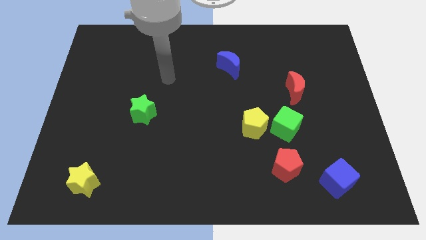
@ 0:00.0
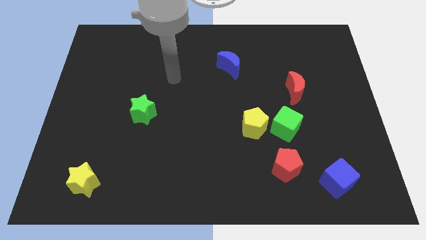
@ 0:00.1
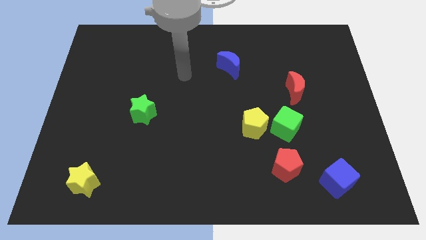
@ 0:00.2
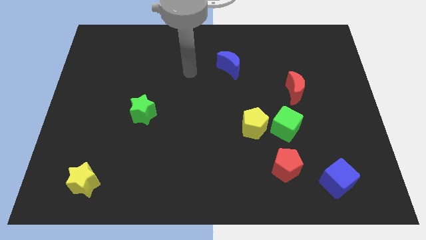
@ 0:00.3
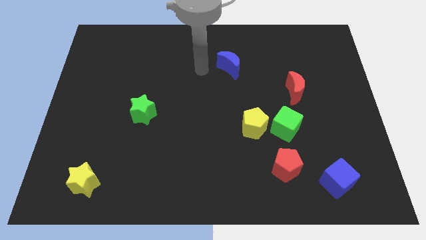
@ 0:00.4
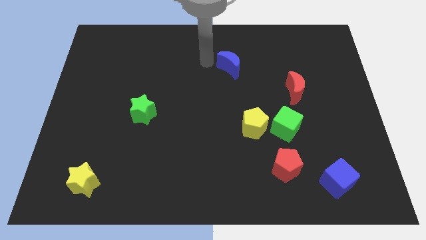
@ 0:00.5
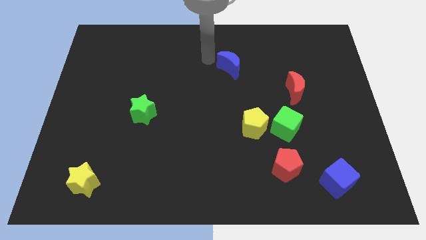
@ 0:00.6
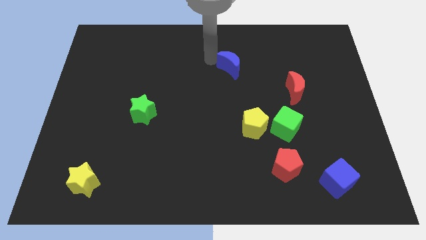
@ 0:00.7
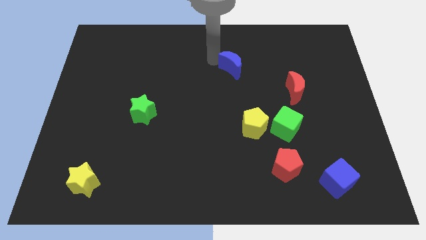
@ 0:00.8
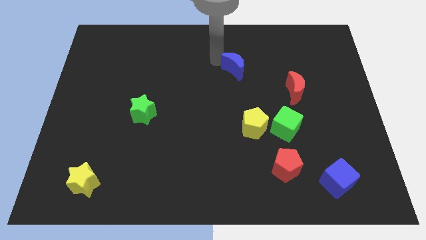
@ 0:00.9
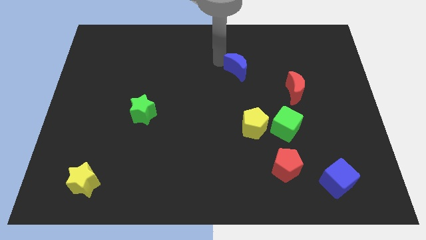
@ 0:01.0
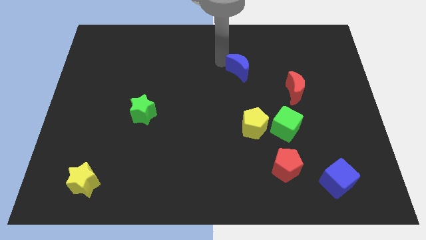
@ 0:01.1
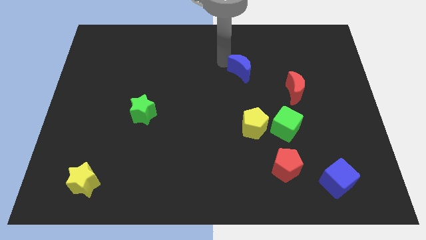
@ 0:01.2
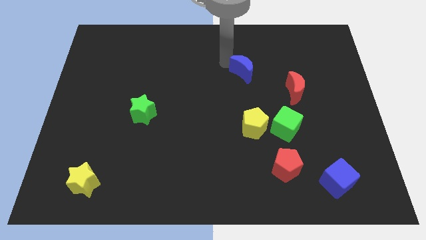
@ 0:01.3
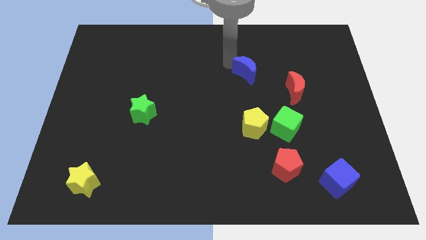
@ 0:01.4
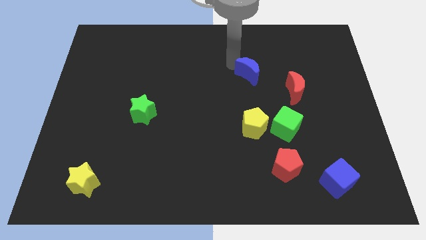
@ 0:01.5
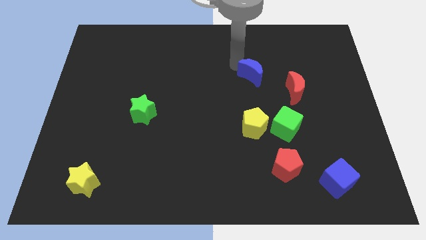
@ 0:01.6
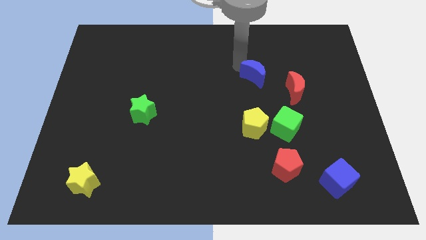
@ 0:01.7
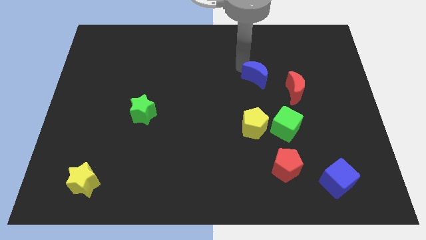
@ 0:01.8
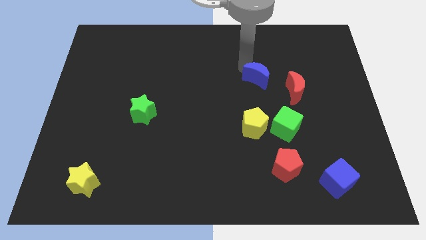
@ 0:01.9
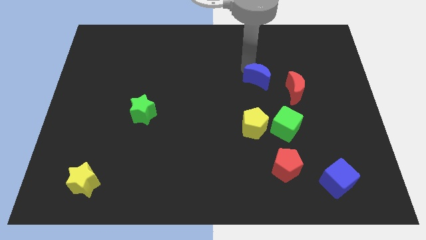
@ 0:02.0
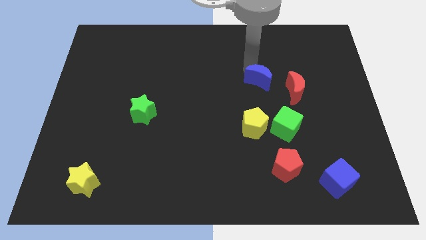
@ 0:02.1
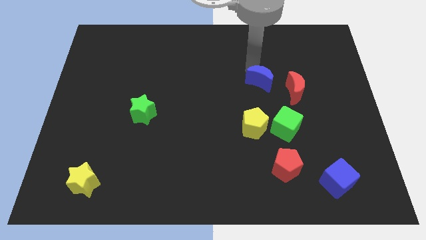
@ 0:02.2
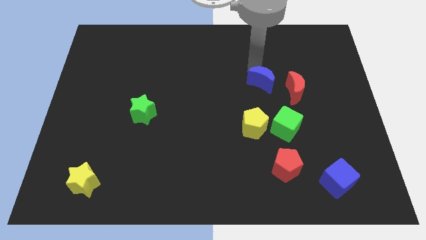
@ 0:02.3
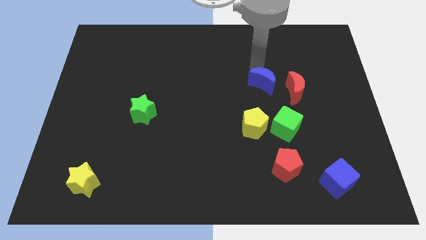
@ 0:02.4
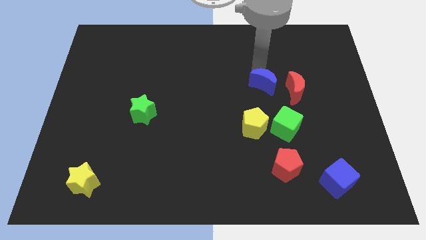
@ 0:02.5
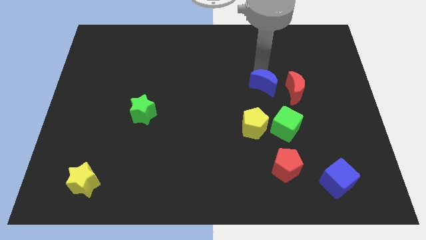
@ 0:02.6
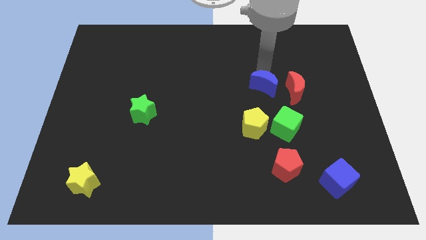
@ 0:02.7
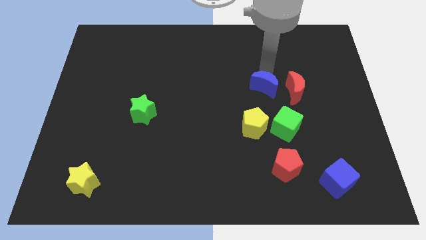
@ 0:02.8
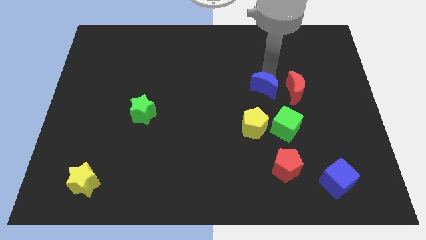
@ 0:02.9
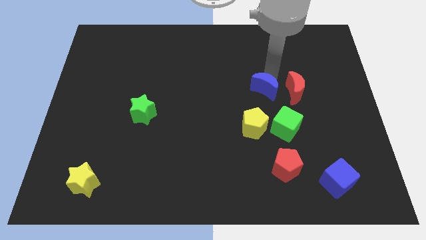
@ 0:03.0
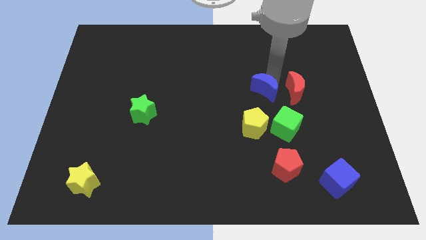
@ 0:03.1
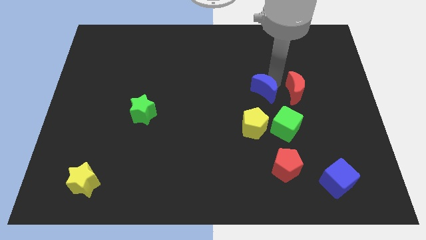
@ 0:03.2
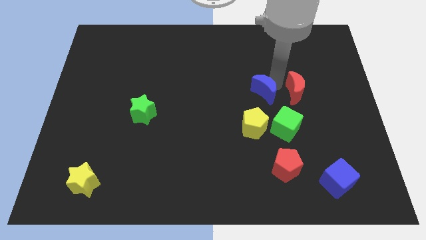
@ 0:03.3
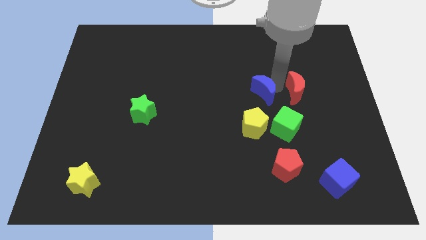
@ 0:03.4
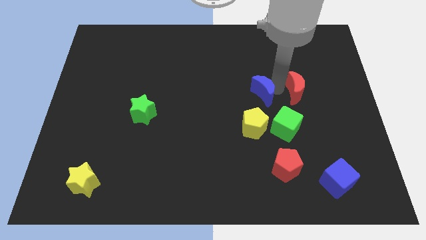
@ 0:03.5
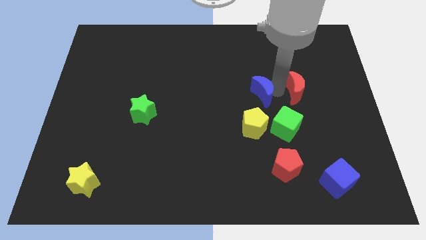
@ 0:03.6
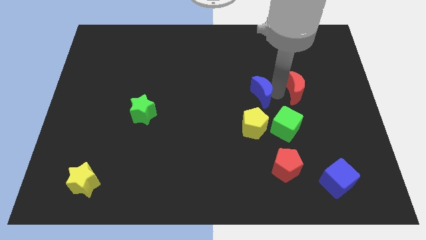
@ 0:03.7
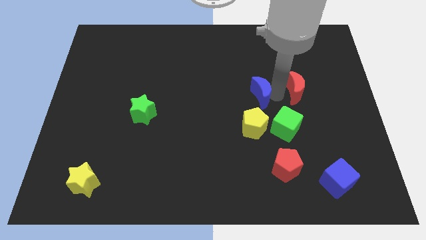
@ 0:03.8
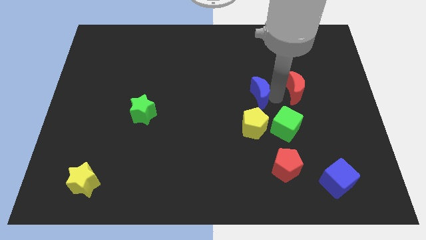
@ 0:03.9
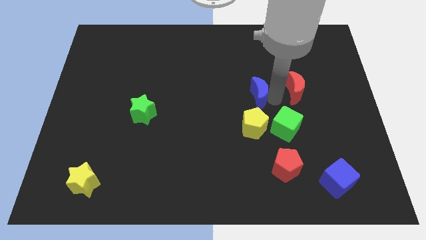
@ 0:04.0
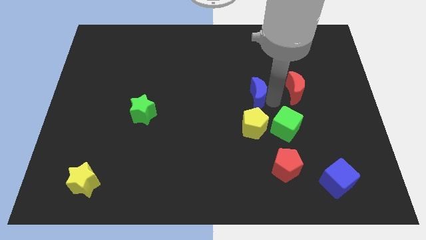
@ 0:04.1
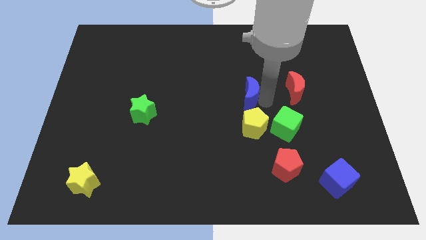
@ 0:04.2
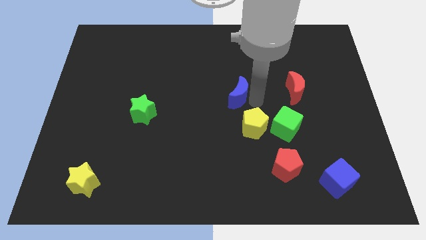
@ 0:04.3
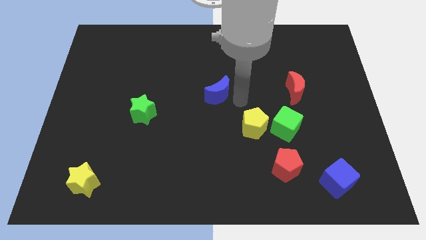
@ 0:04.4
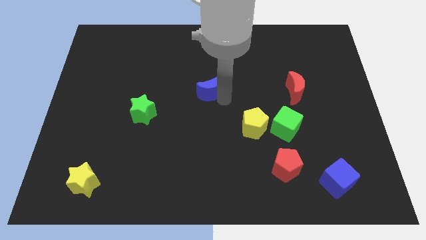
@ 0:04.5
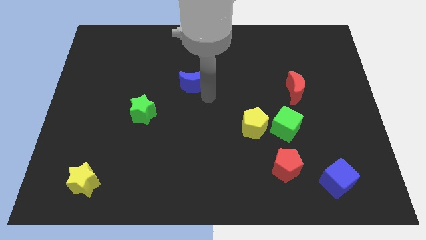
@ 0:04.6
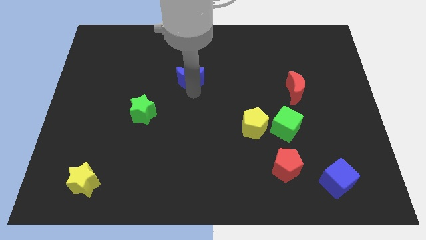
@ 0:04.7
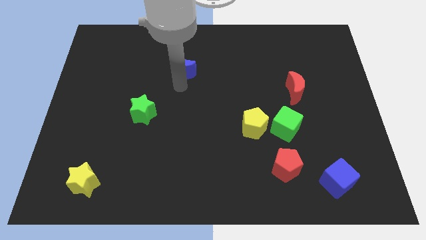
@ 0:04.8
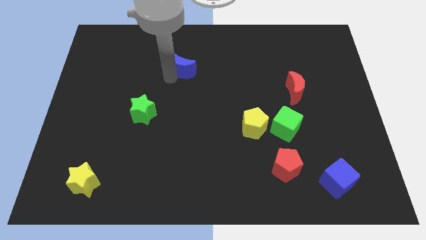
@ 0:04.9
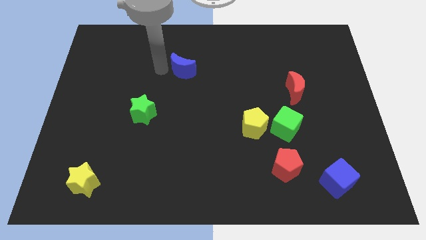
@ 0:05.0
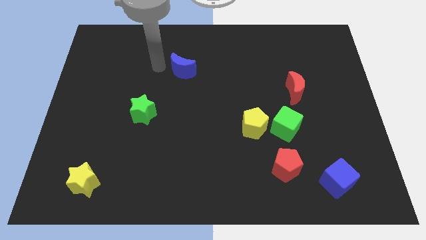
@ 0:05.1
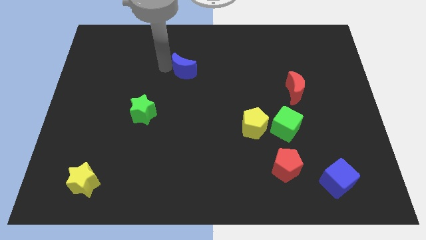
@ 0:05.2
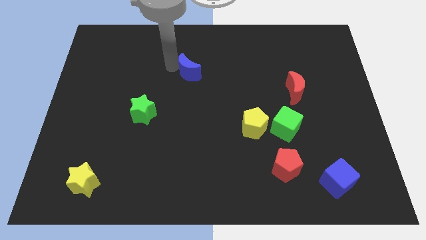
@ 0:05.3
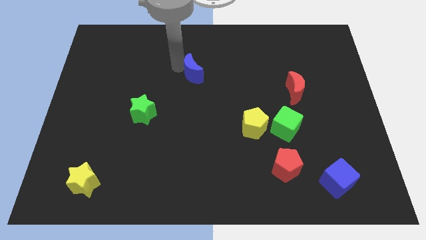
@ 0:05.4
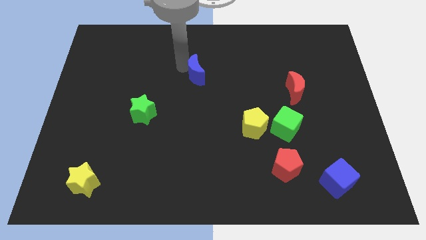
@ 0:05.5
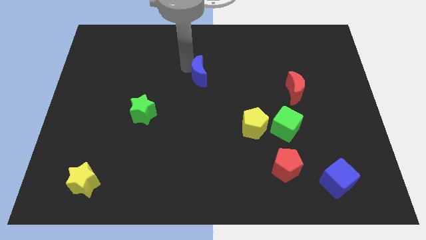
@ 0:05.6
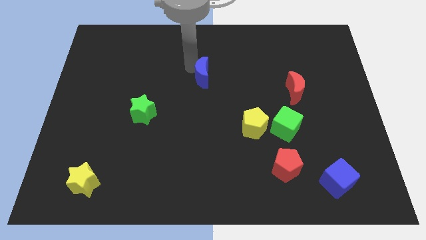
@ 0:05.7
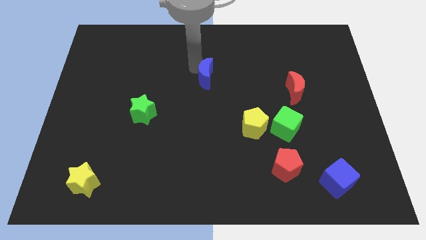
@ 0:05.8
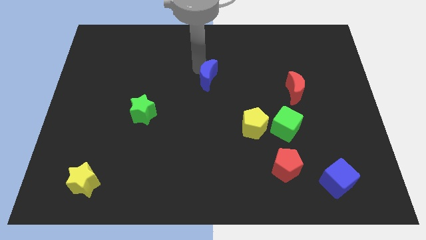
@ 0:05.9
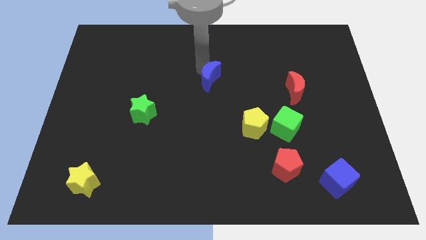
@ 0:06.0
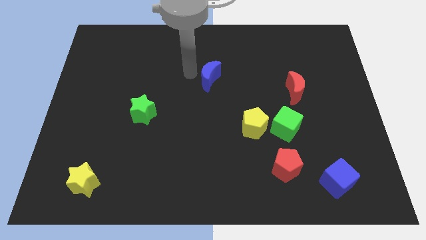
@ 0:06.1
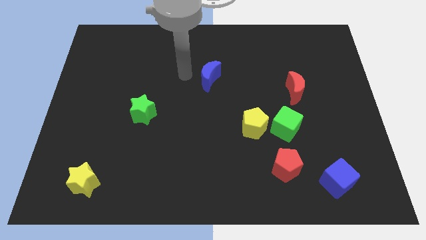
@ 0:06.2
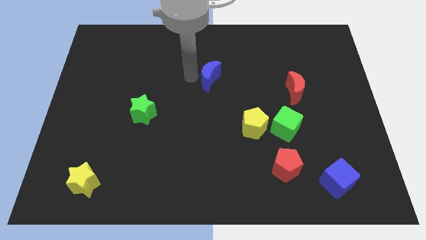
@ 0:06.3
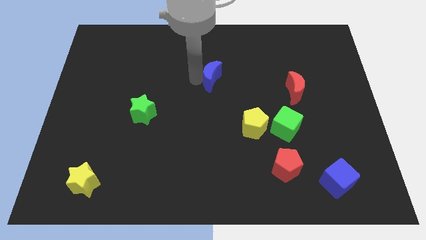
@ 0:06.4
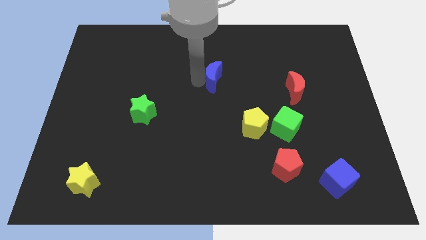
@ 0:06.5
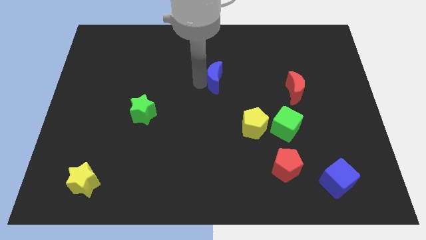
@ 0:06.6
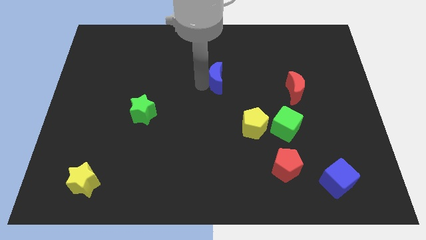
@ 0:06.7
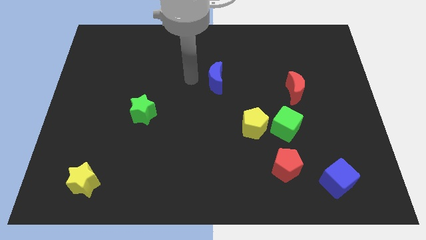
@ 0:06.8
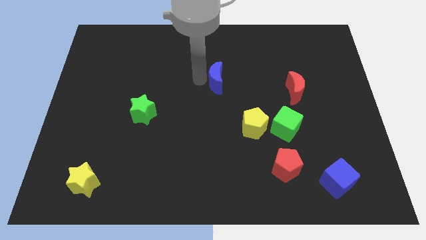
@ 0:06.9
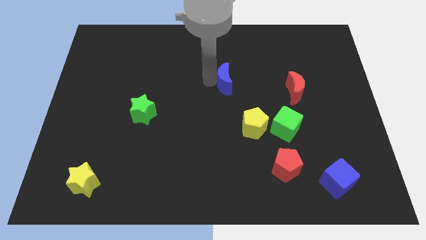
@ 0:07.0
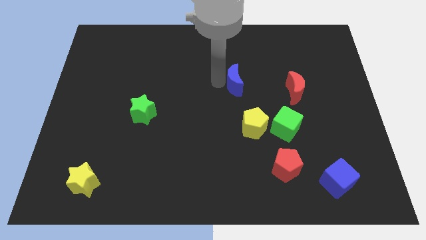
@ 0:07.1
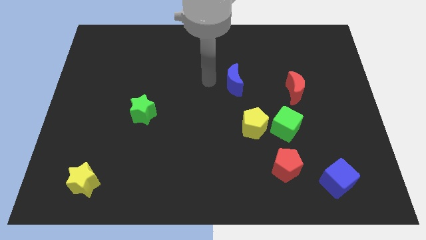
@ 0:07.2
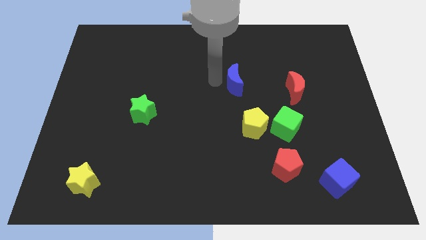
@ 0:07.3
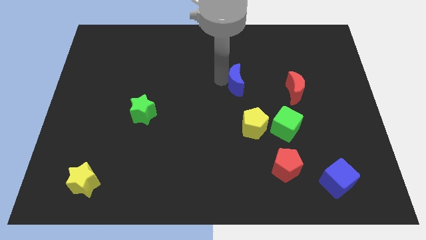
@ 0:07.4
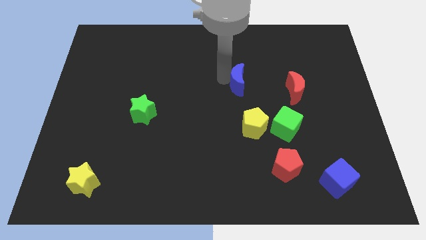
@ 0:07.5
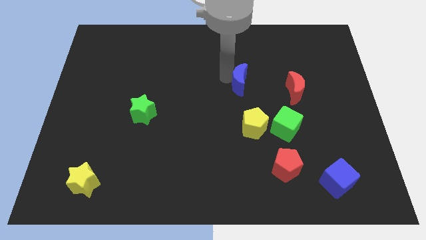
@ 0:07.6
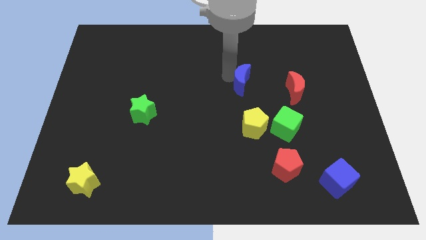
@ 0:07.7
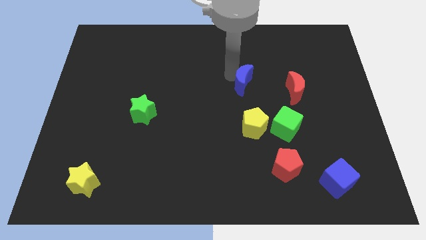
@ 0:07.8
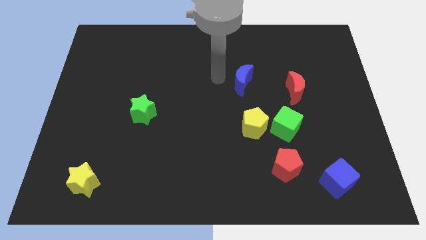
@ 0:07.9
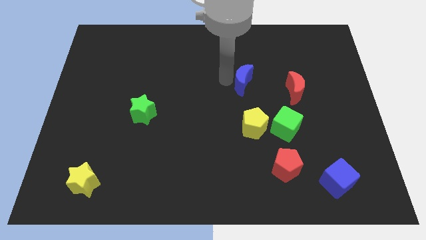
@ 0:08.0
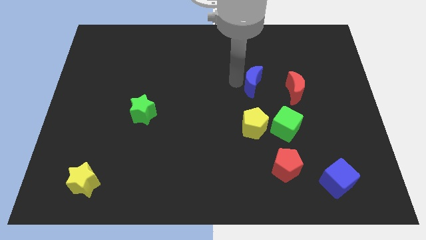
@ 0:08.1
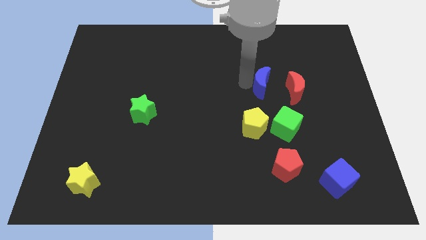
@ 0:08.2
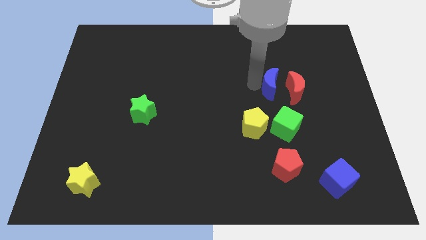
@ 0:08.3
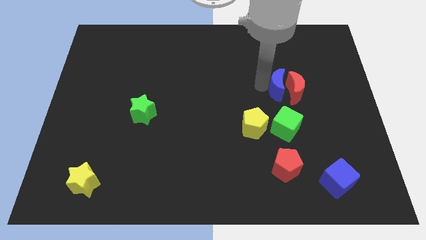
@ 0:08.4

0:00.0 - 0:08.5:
push the blue moon next to the red moon
